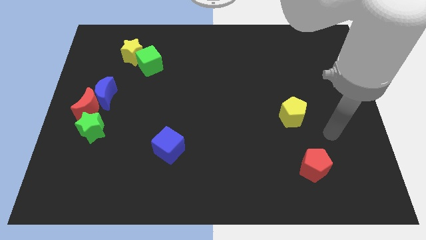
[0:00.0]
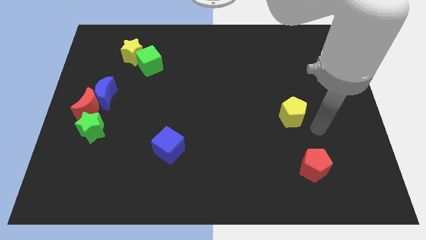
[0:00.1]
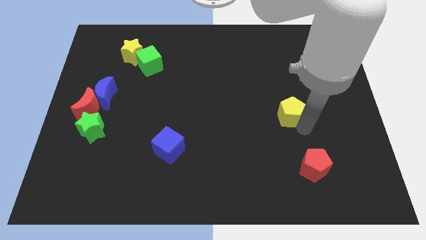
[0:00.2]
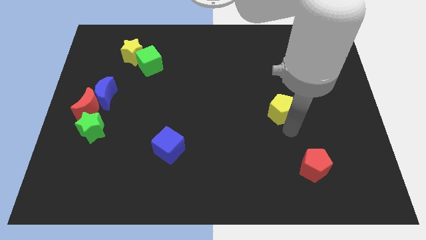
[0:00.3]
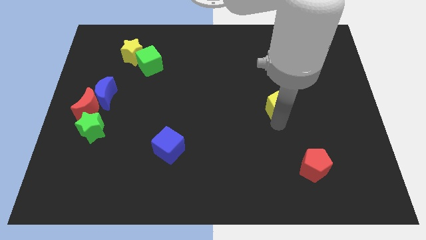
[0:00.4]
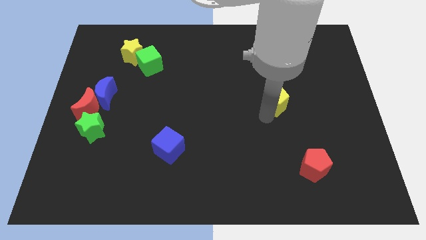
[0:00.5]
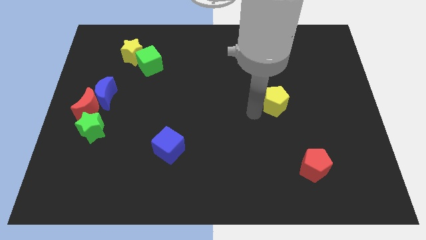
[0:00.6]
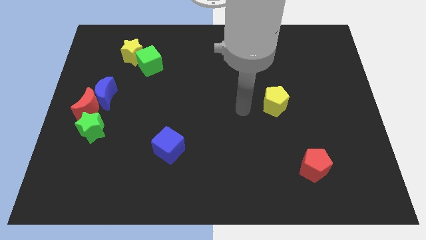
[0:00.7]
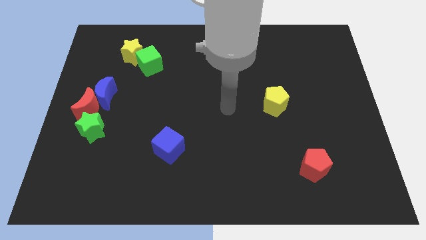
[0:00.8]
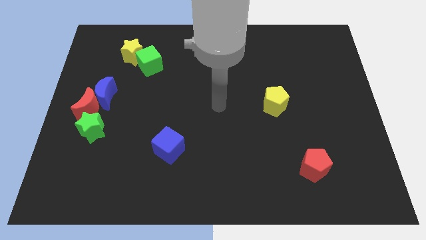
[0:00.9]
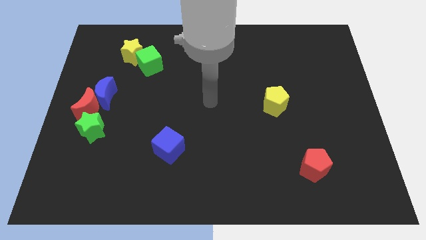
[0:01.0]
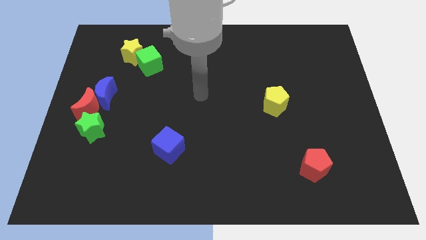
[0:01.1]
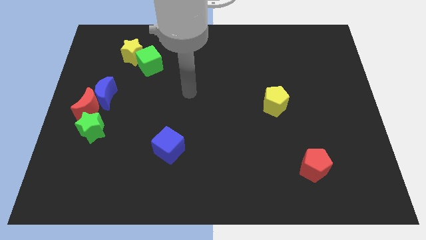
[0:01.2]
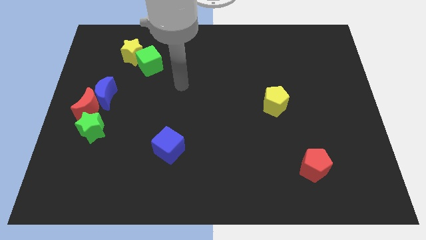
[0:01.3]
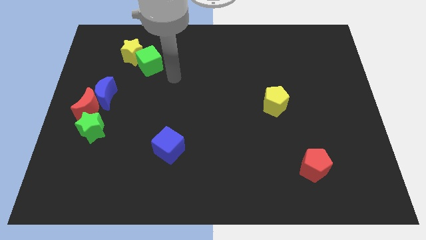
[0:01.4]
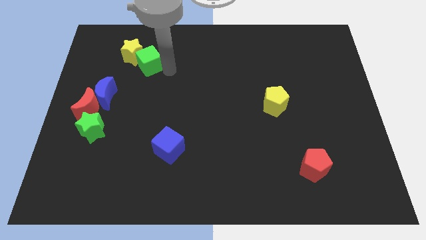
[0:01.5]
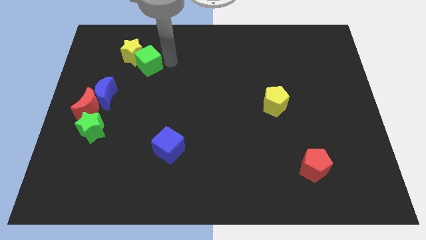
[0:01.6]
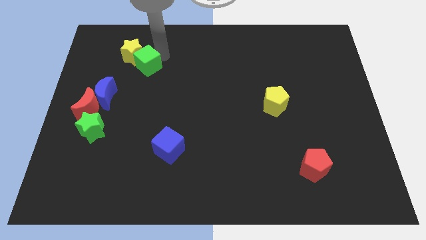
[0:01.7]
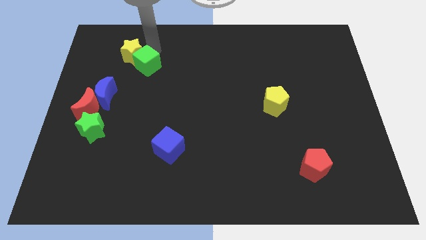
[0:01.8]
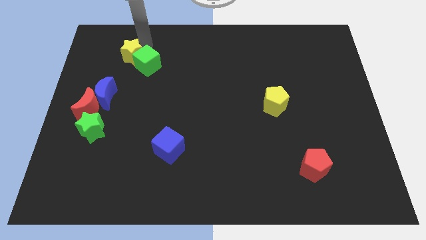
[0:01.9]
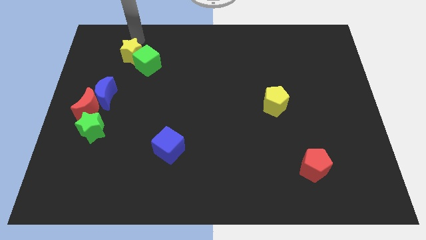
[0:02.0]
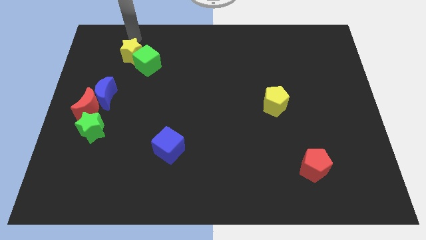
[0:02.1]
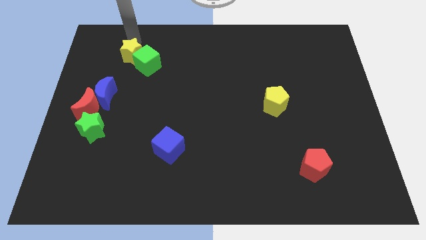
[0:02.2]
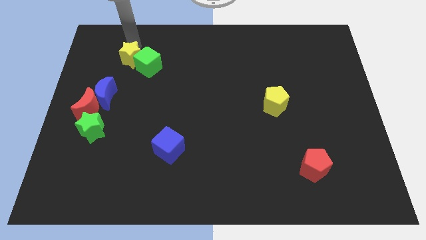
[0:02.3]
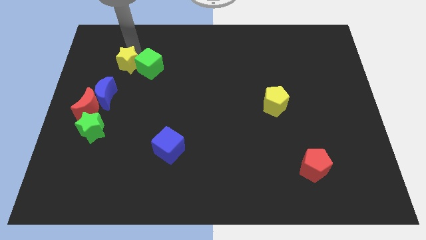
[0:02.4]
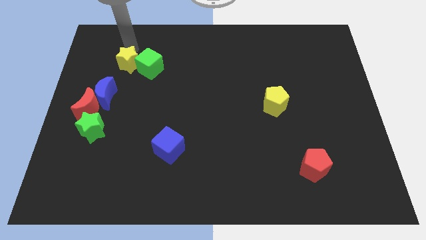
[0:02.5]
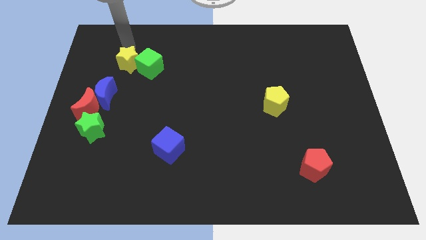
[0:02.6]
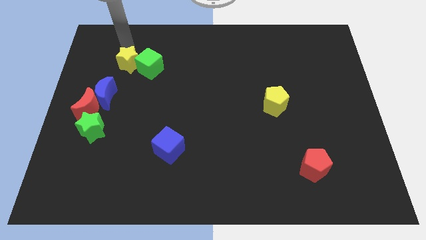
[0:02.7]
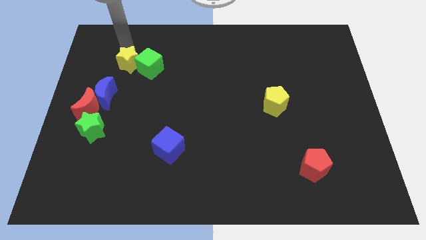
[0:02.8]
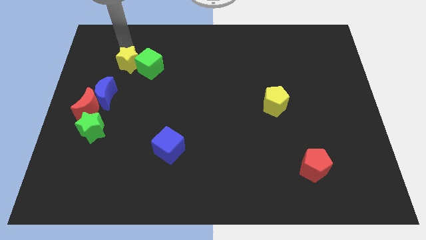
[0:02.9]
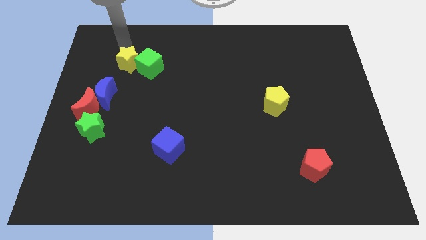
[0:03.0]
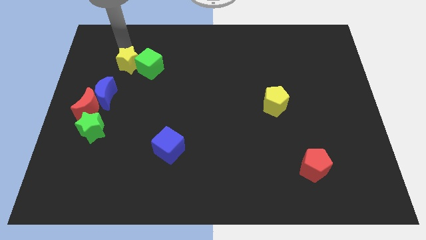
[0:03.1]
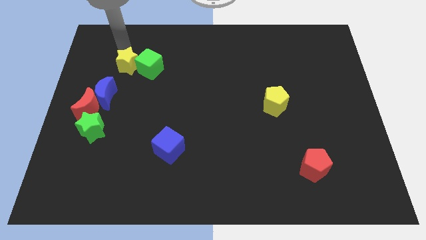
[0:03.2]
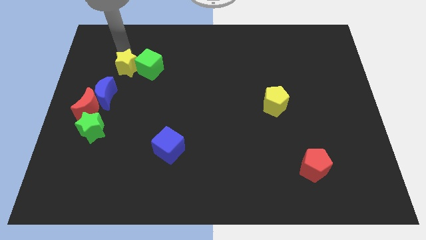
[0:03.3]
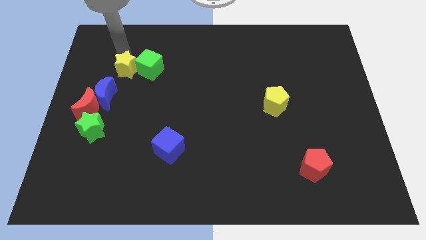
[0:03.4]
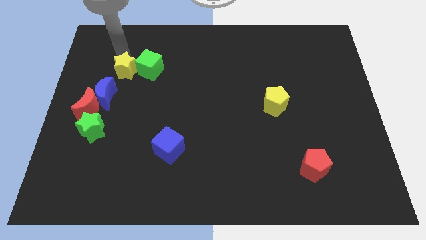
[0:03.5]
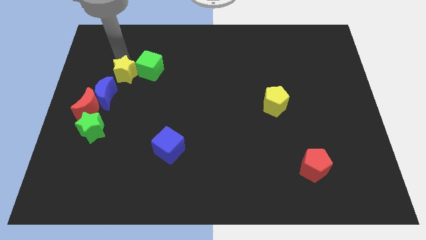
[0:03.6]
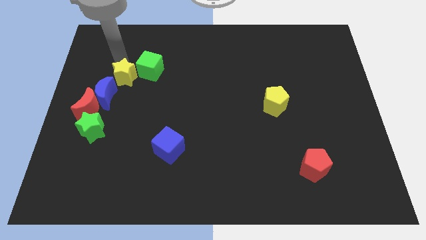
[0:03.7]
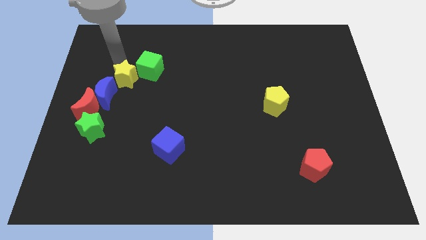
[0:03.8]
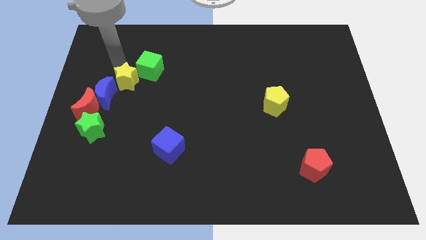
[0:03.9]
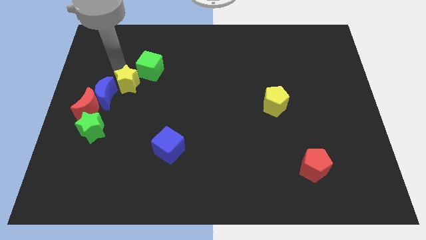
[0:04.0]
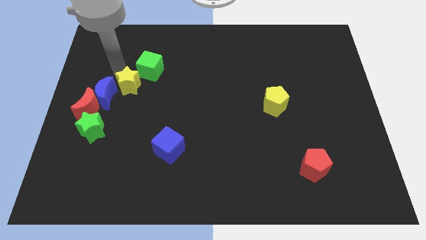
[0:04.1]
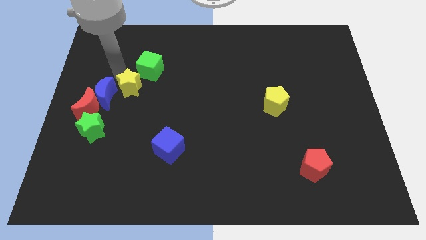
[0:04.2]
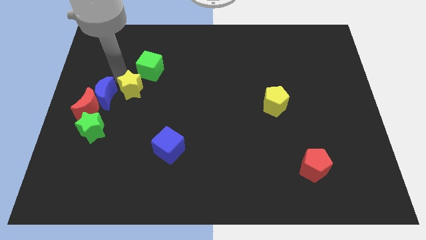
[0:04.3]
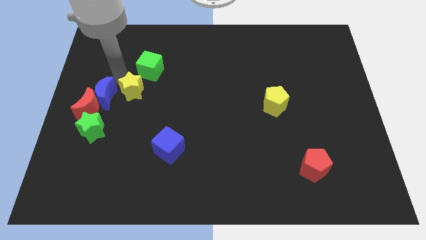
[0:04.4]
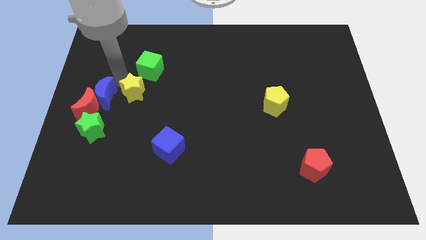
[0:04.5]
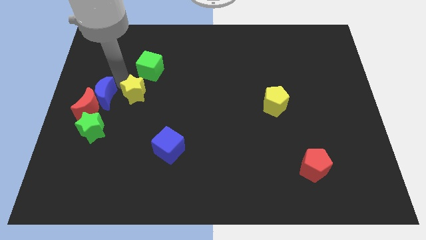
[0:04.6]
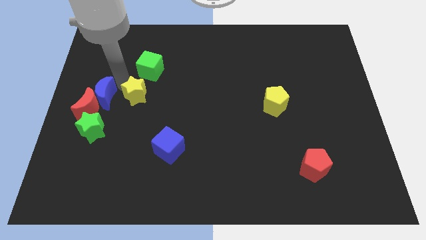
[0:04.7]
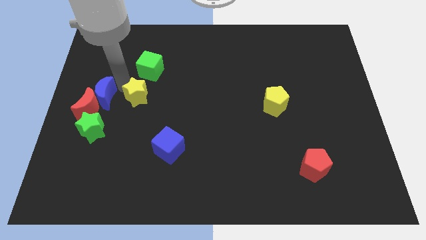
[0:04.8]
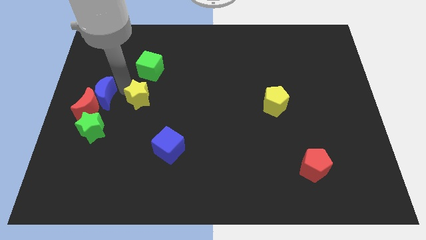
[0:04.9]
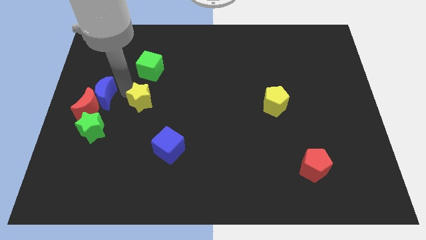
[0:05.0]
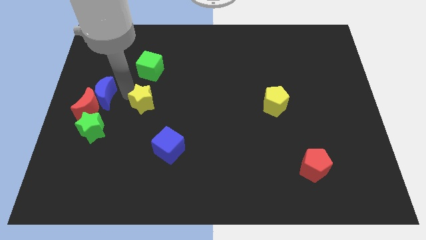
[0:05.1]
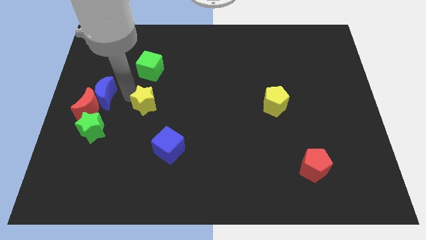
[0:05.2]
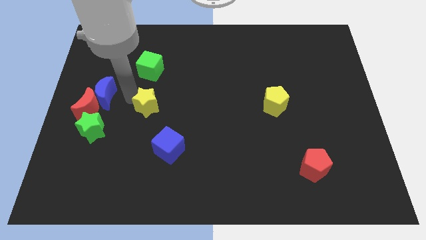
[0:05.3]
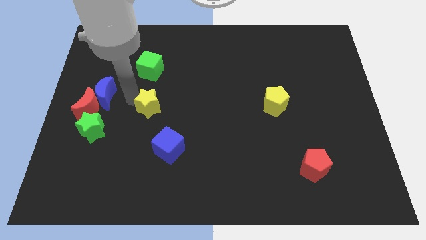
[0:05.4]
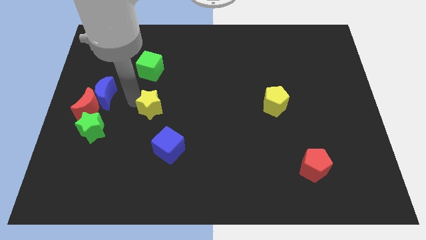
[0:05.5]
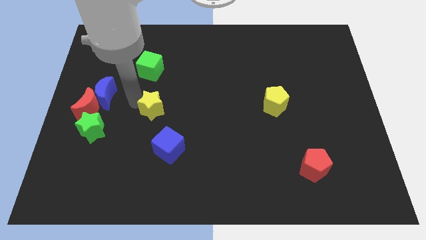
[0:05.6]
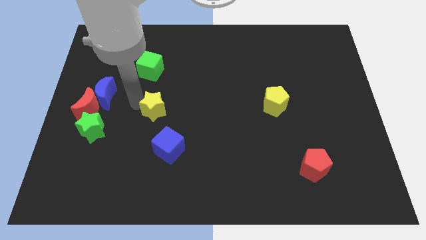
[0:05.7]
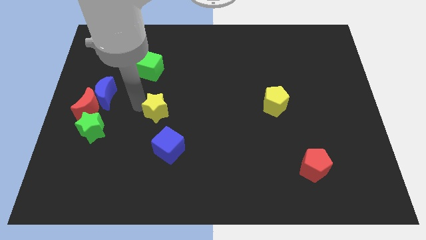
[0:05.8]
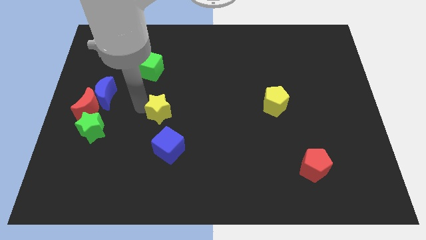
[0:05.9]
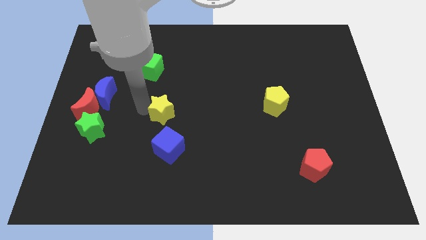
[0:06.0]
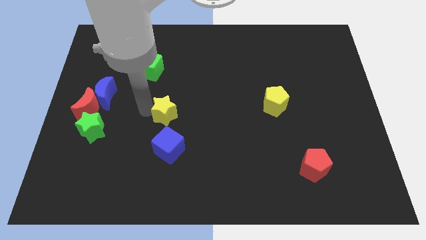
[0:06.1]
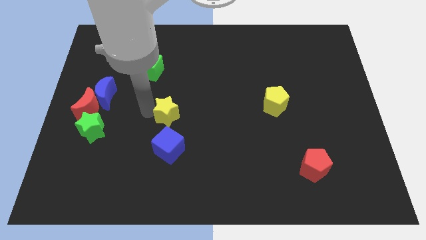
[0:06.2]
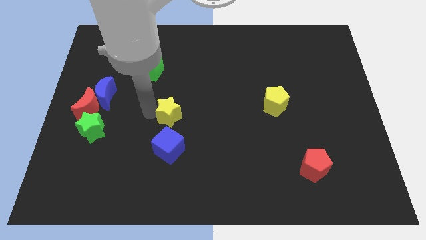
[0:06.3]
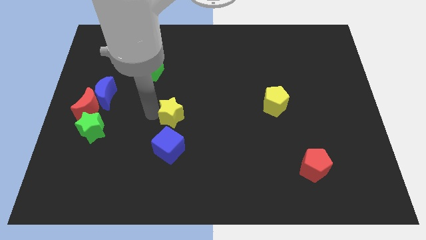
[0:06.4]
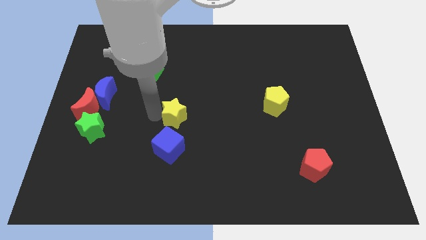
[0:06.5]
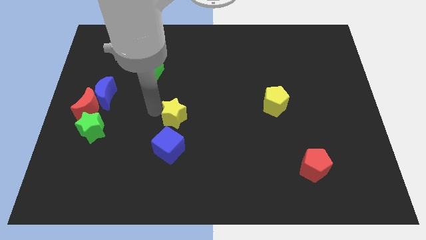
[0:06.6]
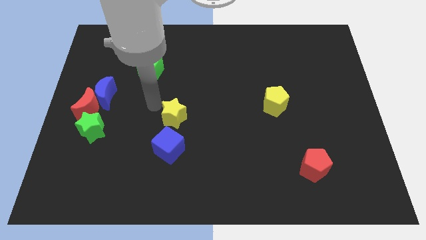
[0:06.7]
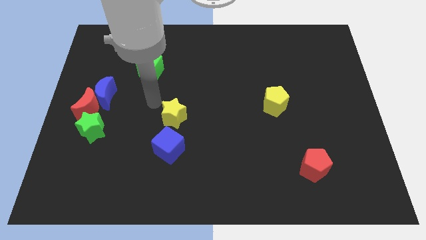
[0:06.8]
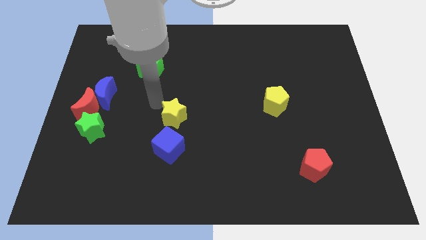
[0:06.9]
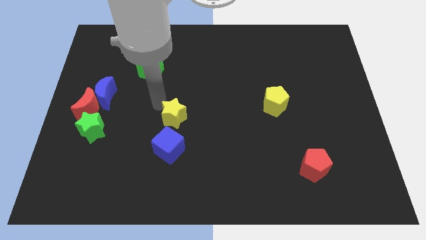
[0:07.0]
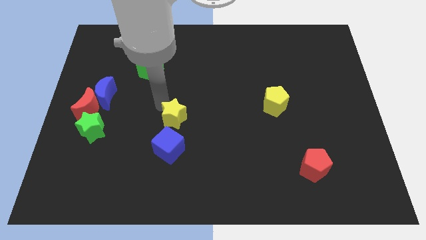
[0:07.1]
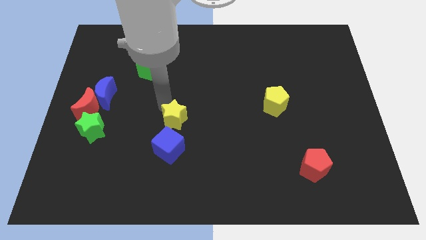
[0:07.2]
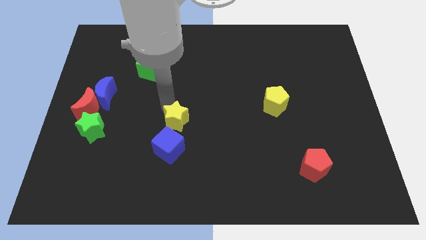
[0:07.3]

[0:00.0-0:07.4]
slide the yellow star to the top right side of the blue cube

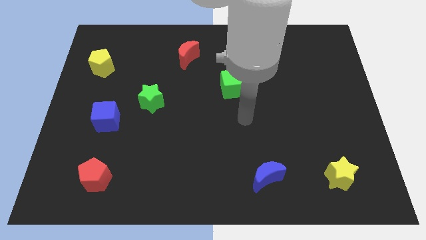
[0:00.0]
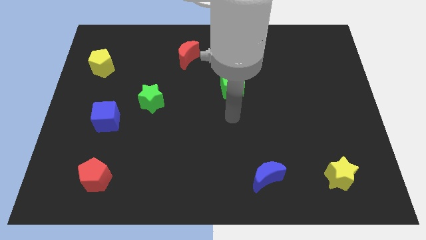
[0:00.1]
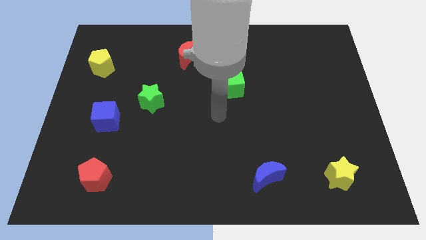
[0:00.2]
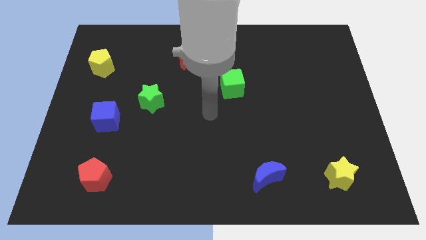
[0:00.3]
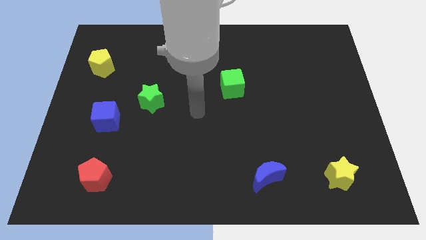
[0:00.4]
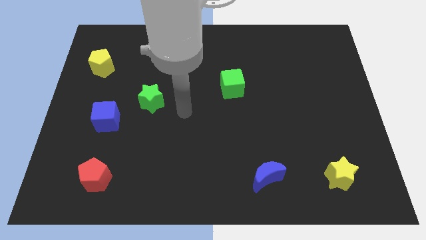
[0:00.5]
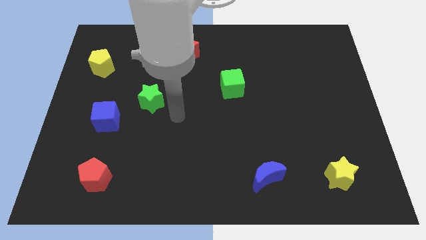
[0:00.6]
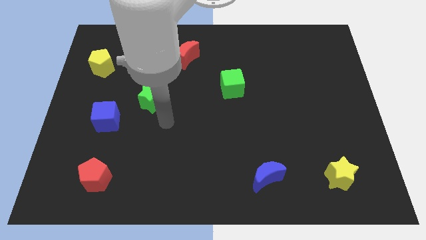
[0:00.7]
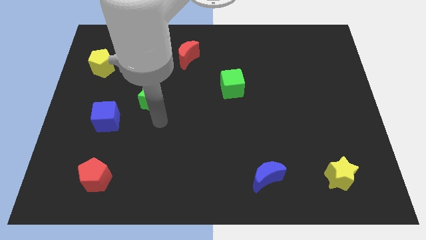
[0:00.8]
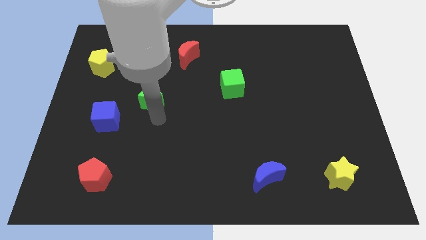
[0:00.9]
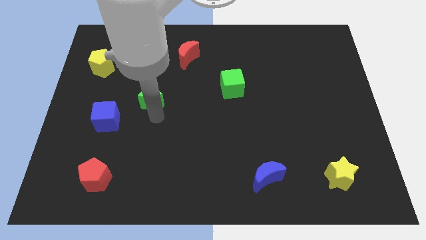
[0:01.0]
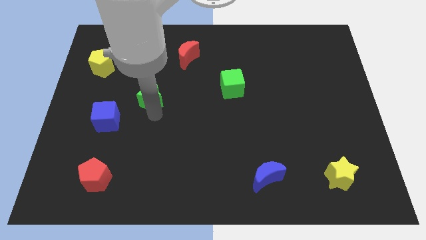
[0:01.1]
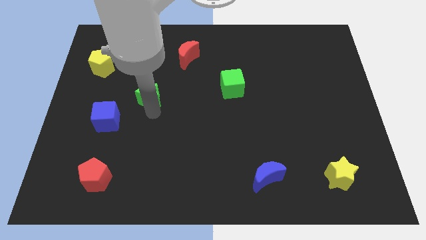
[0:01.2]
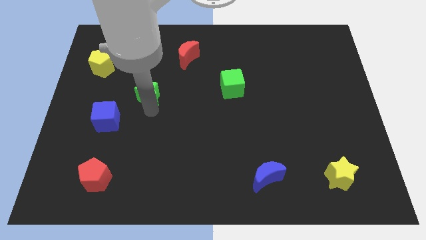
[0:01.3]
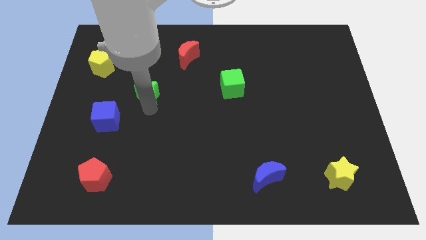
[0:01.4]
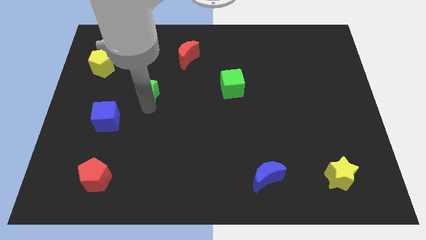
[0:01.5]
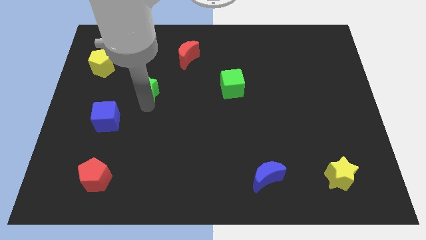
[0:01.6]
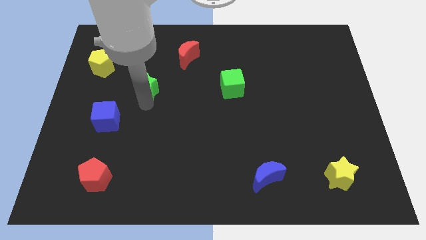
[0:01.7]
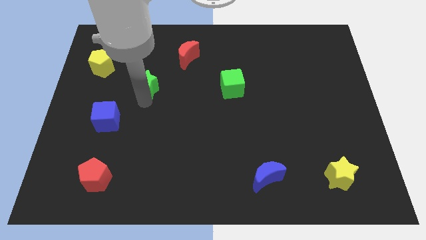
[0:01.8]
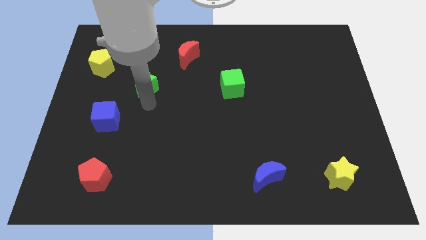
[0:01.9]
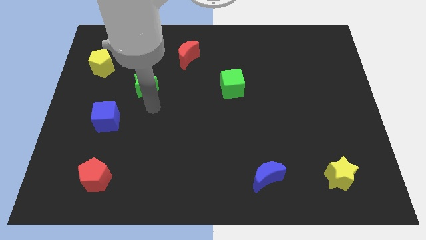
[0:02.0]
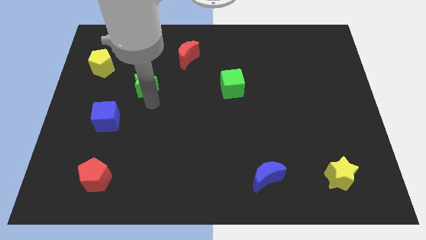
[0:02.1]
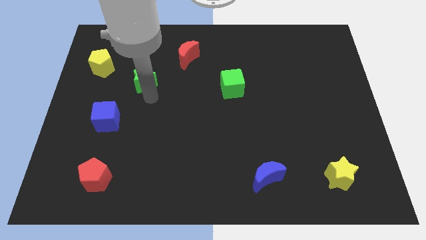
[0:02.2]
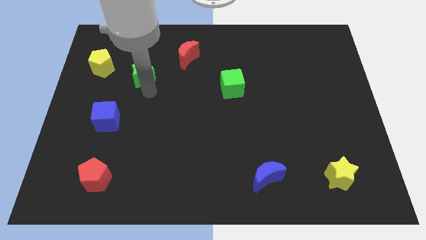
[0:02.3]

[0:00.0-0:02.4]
put the green star to the right of the yellow pentagon
